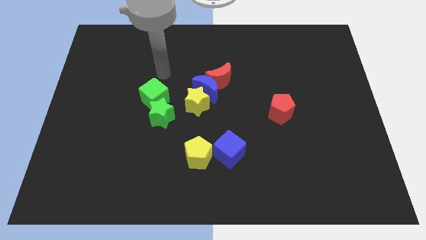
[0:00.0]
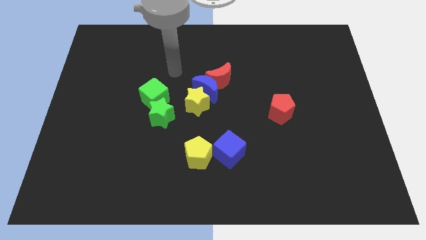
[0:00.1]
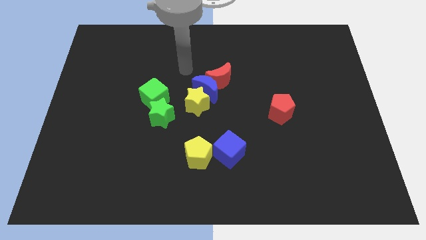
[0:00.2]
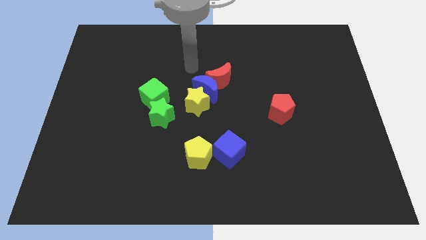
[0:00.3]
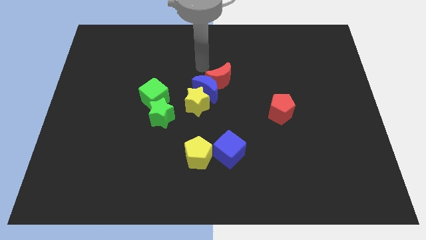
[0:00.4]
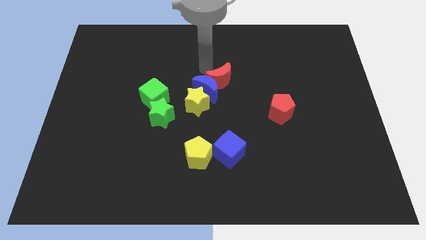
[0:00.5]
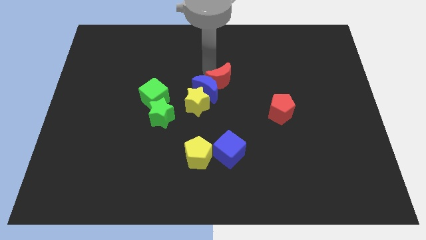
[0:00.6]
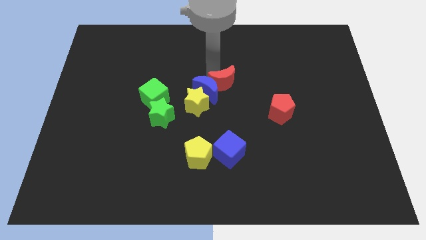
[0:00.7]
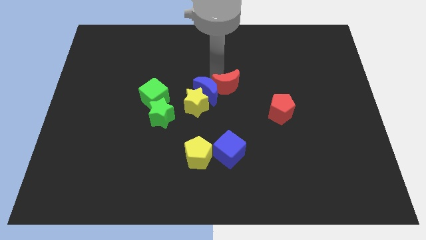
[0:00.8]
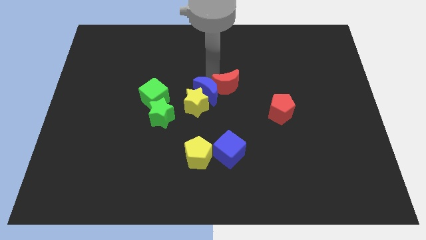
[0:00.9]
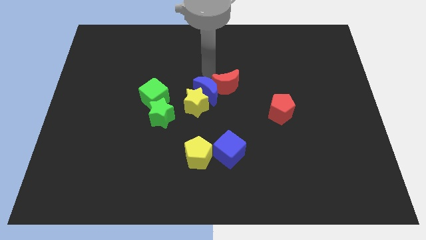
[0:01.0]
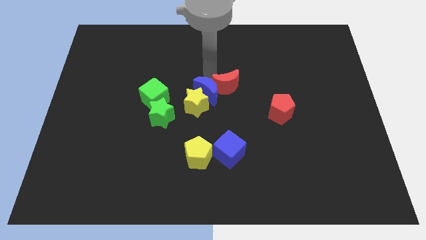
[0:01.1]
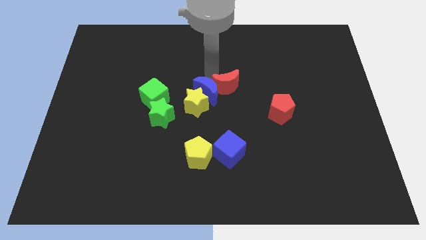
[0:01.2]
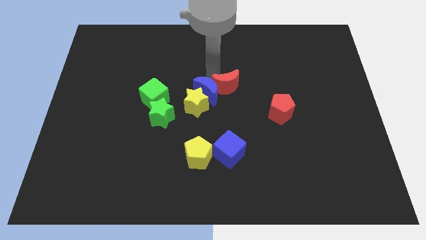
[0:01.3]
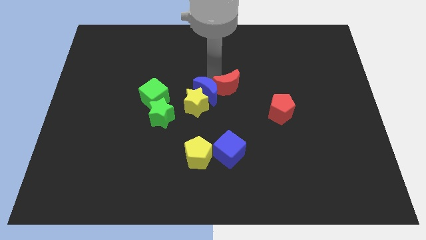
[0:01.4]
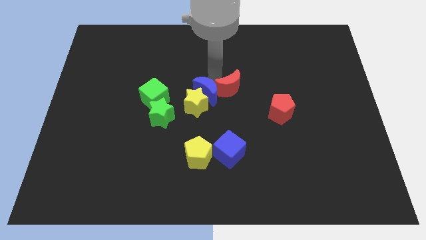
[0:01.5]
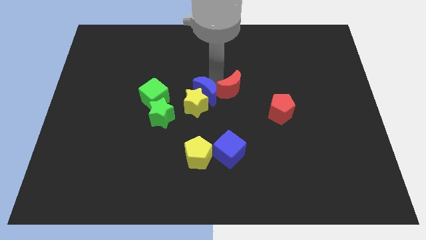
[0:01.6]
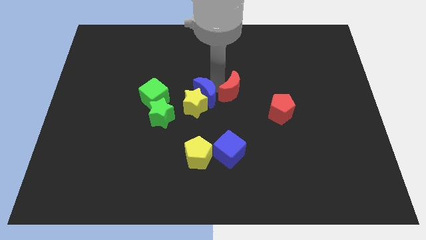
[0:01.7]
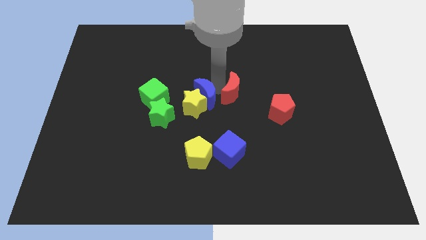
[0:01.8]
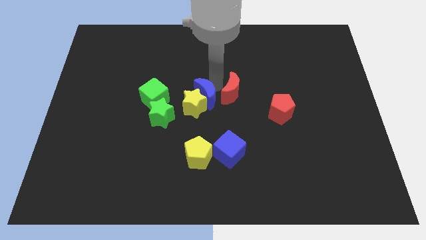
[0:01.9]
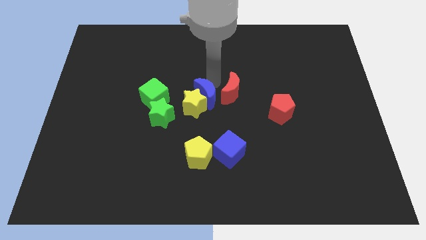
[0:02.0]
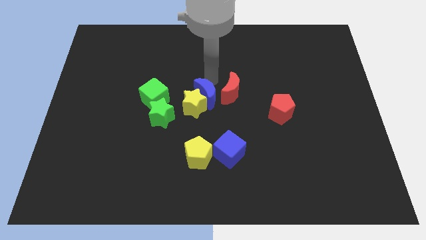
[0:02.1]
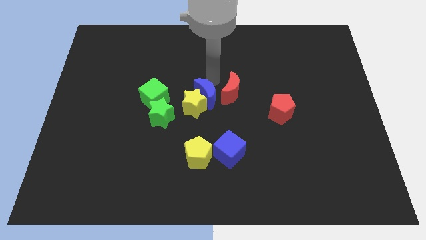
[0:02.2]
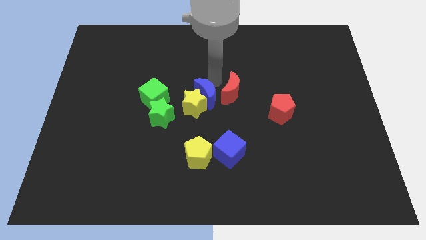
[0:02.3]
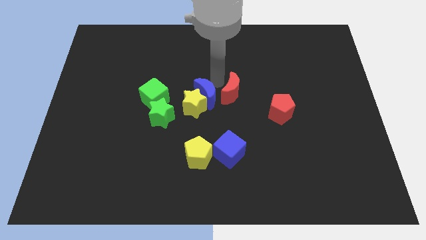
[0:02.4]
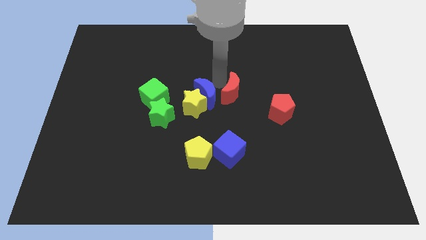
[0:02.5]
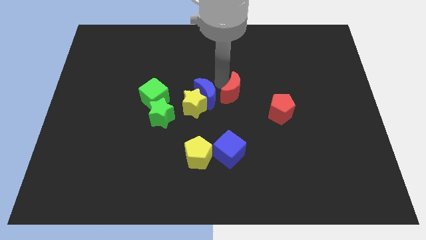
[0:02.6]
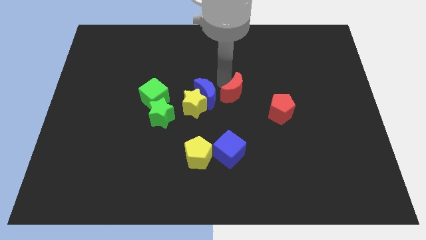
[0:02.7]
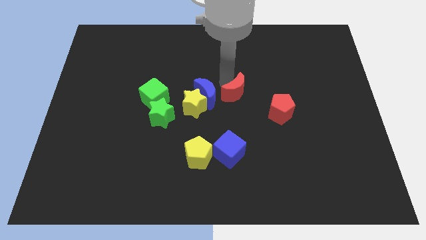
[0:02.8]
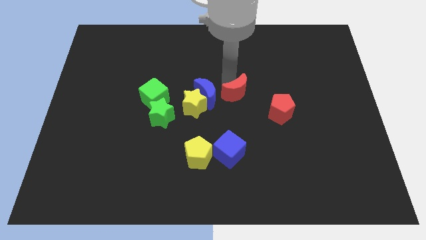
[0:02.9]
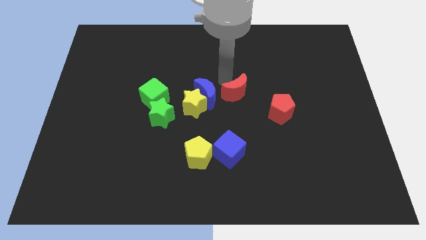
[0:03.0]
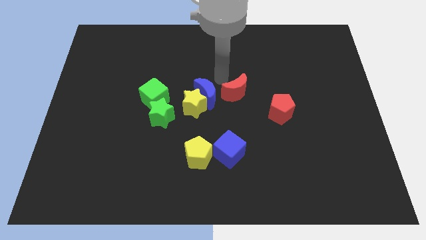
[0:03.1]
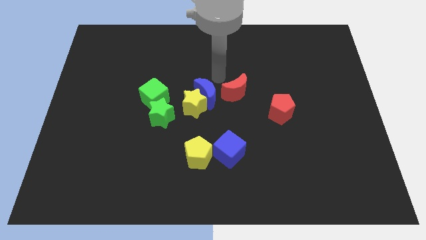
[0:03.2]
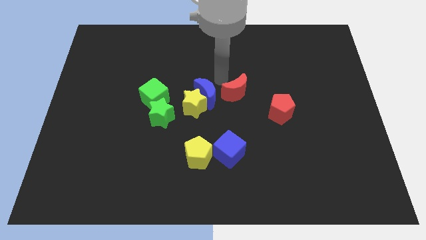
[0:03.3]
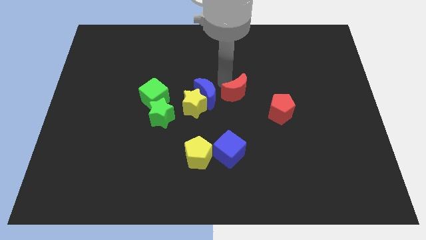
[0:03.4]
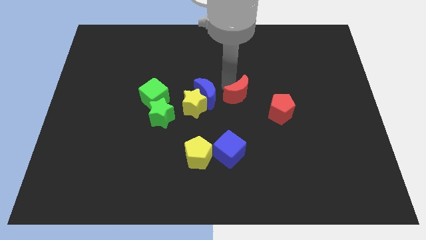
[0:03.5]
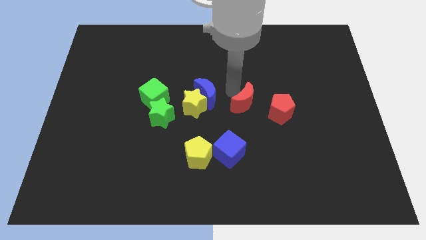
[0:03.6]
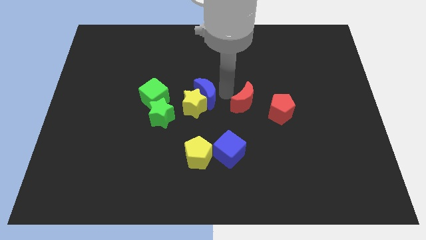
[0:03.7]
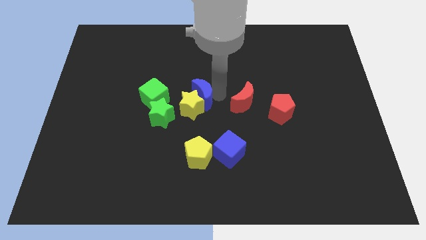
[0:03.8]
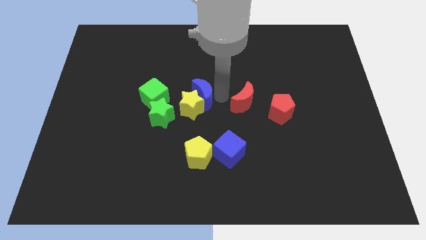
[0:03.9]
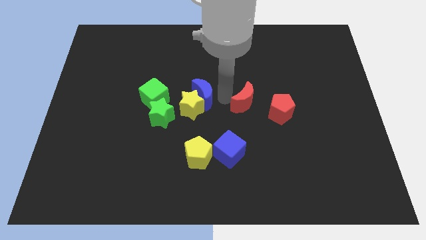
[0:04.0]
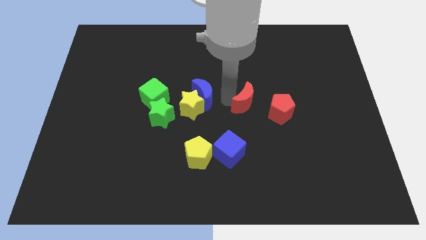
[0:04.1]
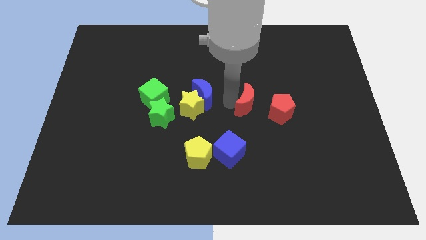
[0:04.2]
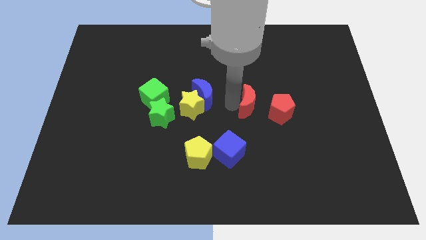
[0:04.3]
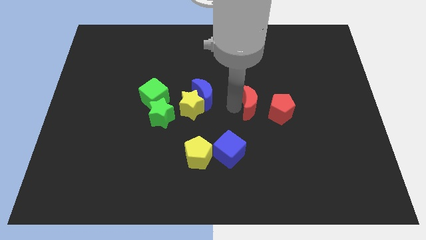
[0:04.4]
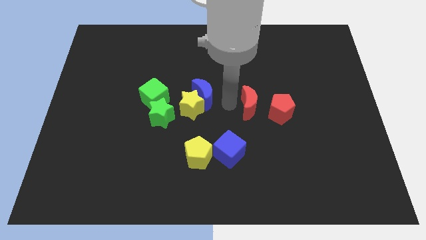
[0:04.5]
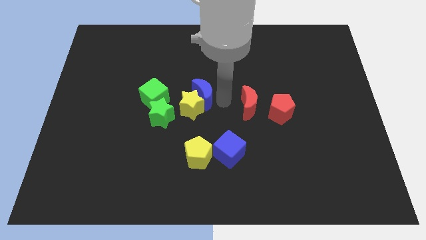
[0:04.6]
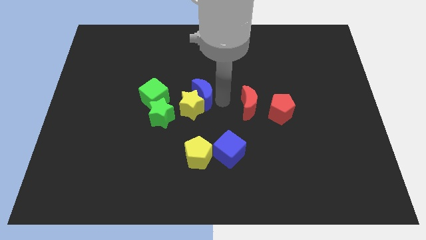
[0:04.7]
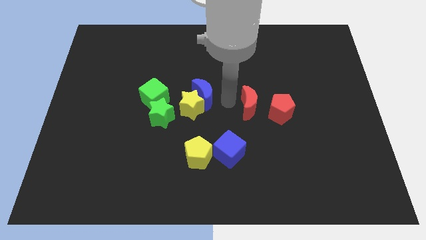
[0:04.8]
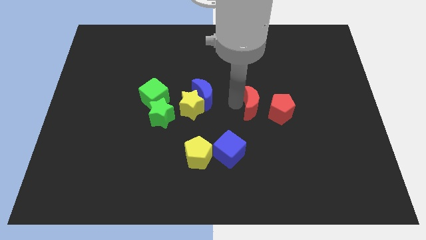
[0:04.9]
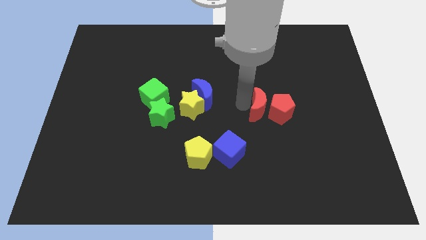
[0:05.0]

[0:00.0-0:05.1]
slide the red moon close to the red pentagon

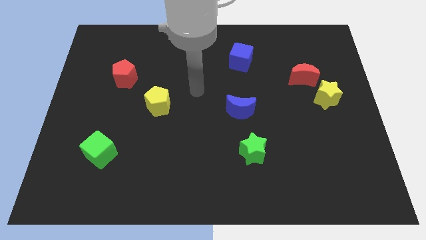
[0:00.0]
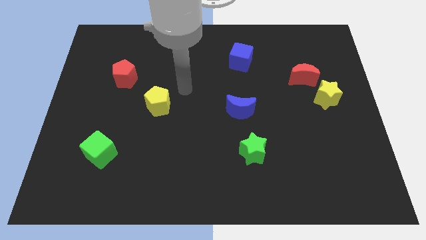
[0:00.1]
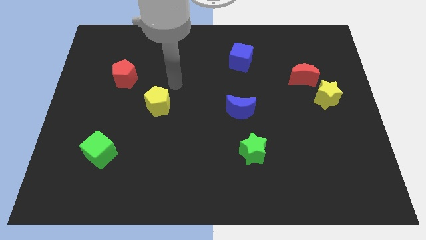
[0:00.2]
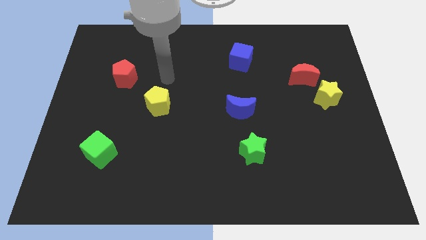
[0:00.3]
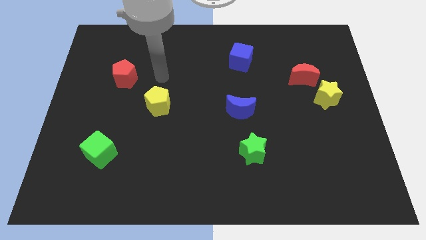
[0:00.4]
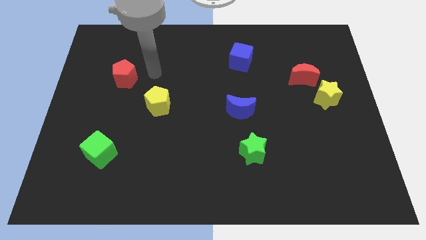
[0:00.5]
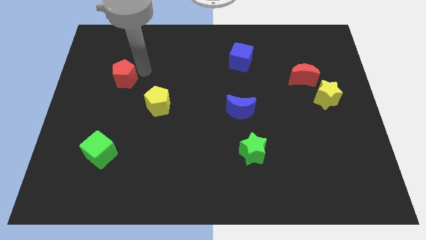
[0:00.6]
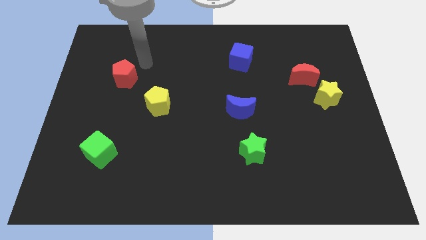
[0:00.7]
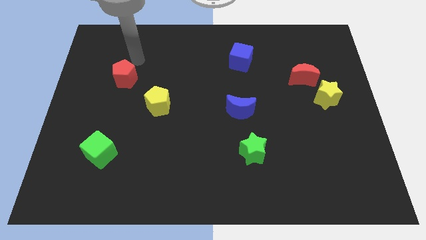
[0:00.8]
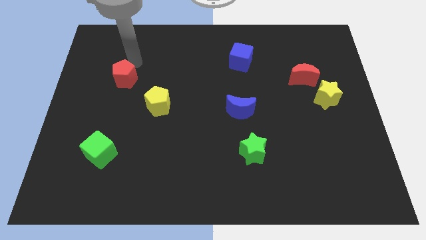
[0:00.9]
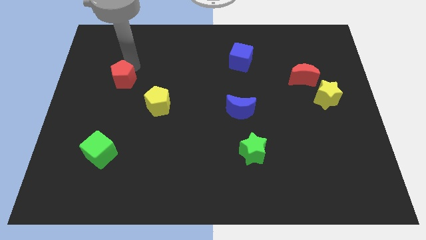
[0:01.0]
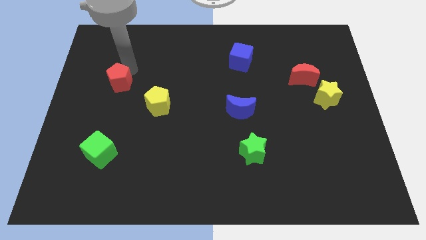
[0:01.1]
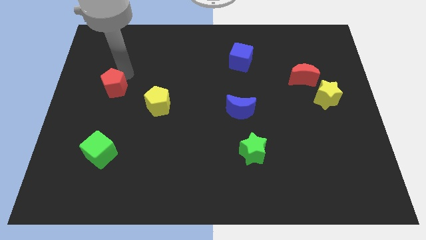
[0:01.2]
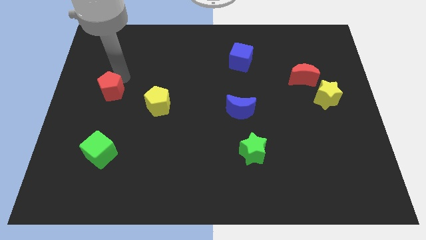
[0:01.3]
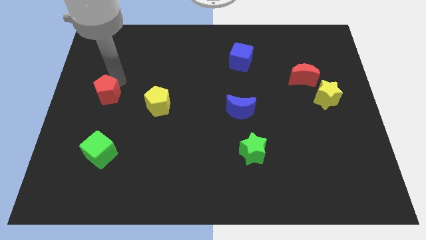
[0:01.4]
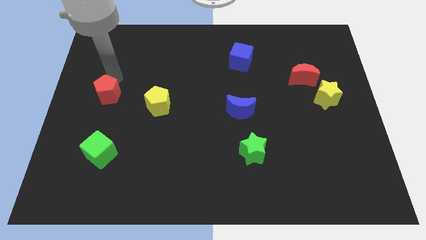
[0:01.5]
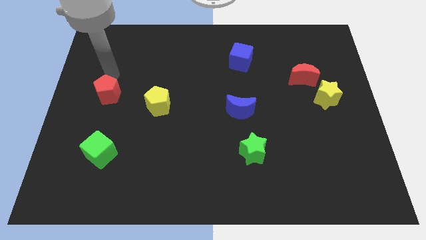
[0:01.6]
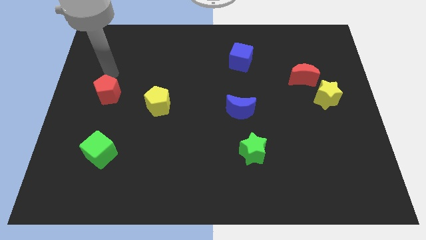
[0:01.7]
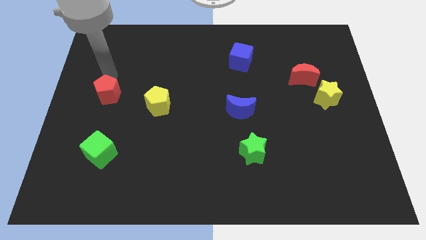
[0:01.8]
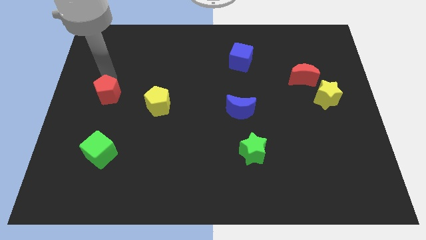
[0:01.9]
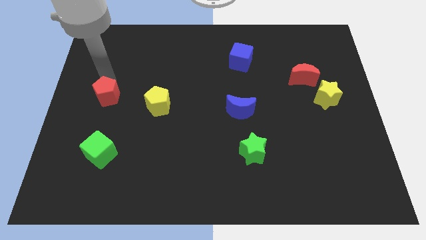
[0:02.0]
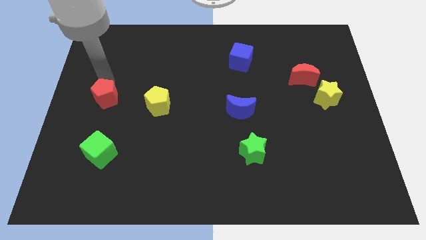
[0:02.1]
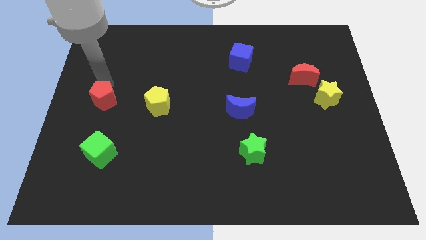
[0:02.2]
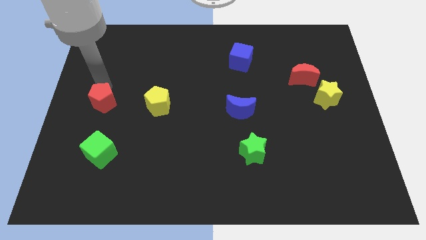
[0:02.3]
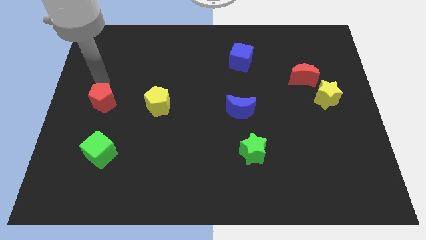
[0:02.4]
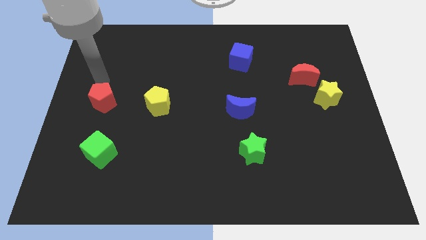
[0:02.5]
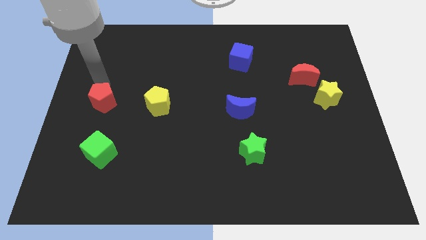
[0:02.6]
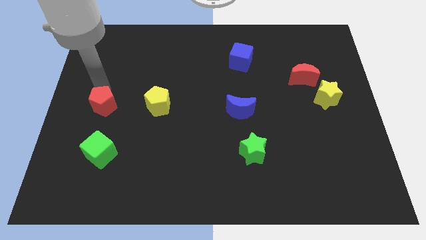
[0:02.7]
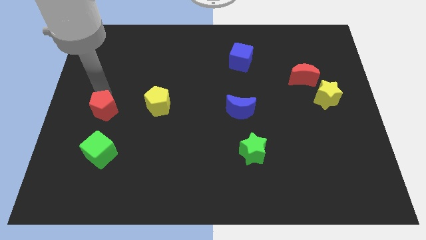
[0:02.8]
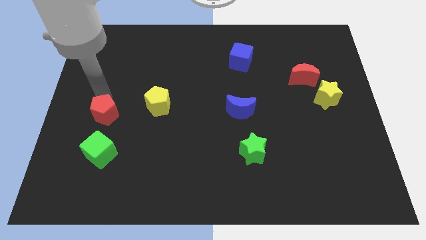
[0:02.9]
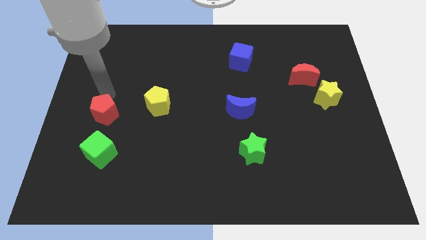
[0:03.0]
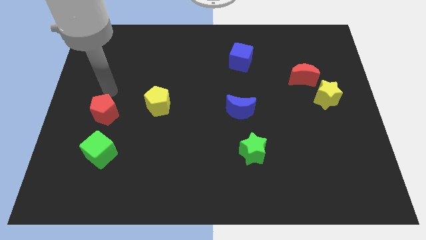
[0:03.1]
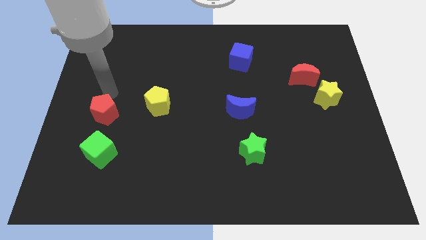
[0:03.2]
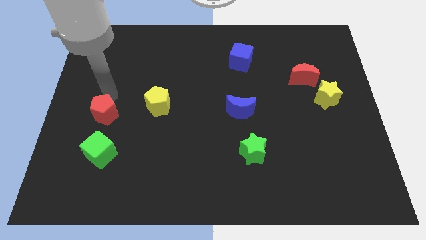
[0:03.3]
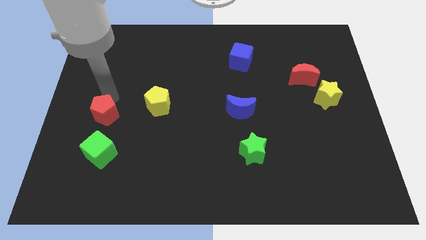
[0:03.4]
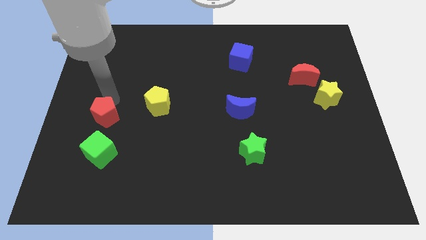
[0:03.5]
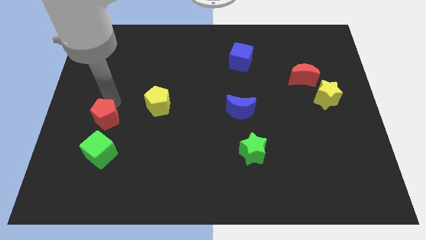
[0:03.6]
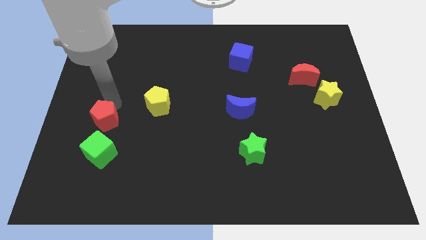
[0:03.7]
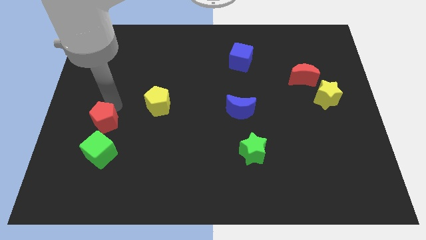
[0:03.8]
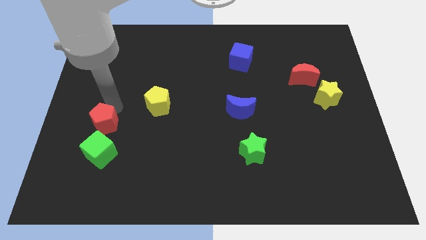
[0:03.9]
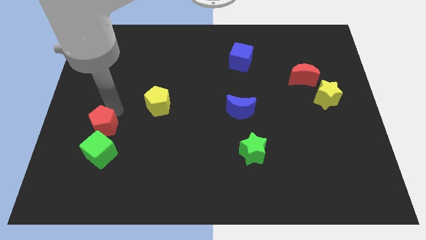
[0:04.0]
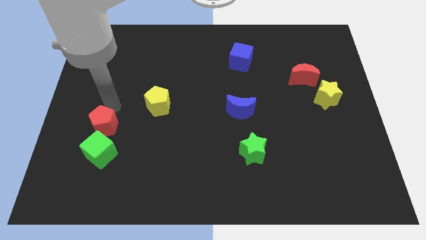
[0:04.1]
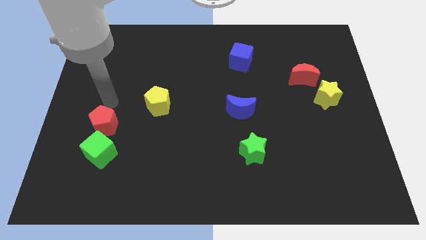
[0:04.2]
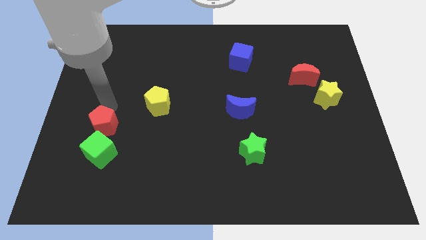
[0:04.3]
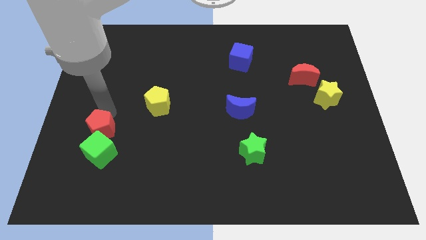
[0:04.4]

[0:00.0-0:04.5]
slide the red pentagon next to the green cube
